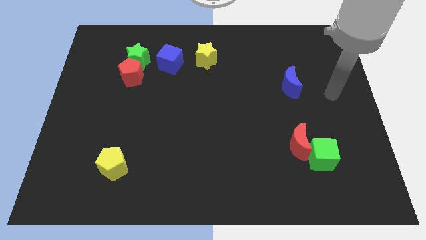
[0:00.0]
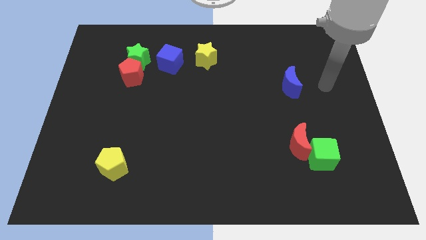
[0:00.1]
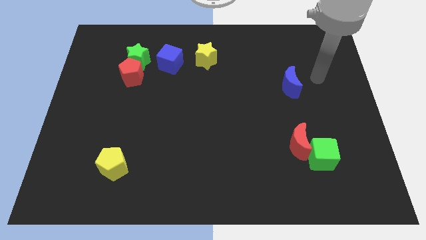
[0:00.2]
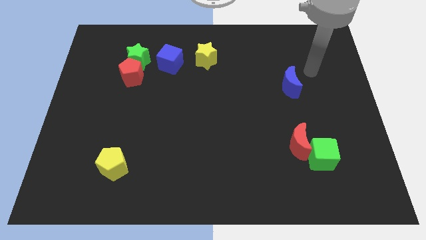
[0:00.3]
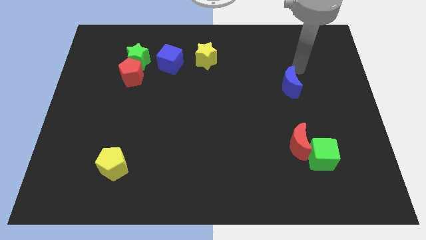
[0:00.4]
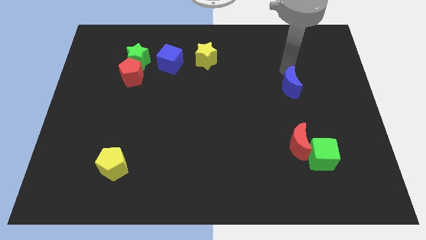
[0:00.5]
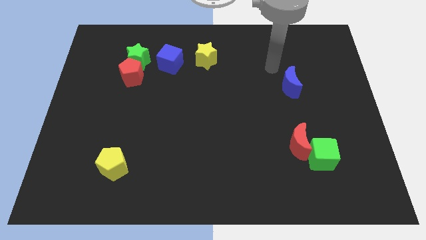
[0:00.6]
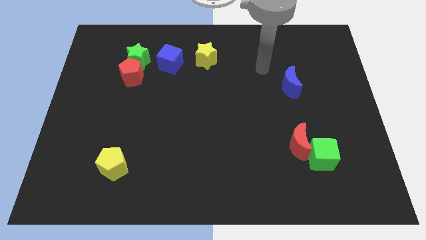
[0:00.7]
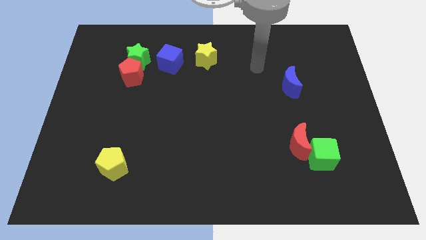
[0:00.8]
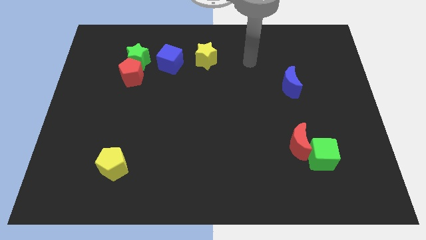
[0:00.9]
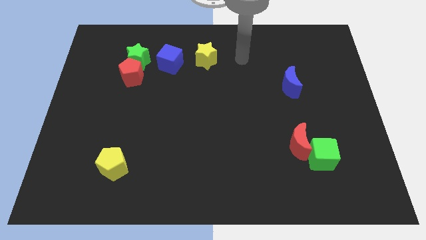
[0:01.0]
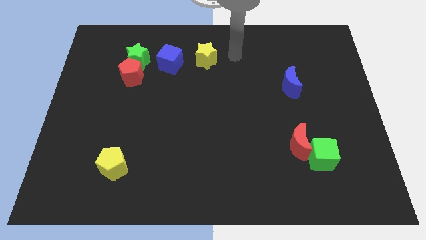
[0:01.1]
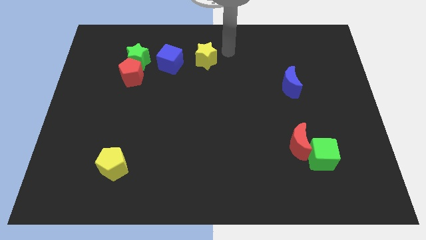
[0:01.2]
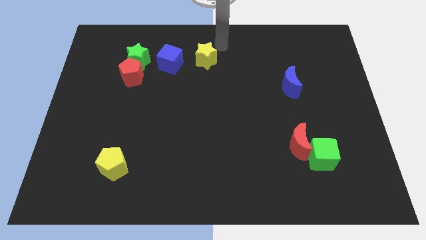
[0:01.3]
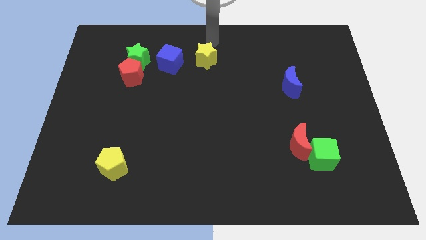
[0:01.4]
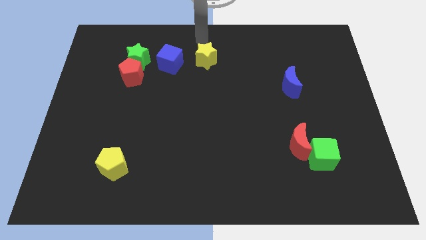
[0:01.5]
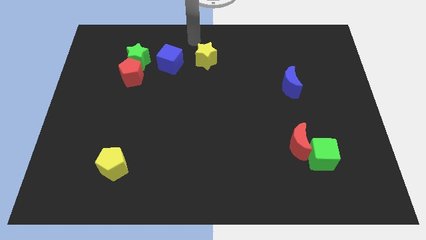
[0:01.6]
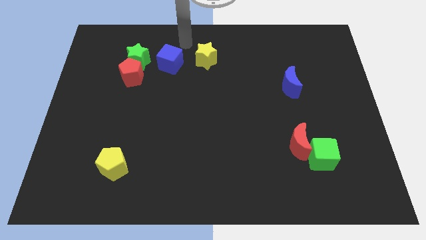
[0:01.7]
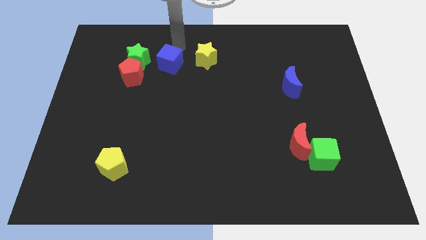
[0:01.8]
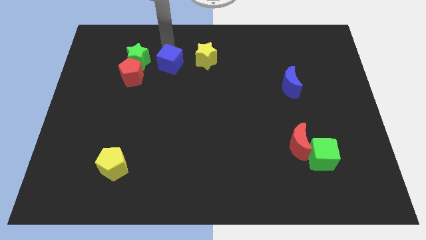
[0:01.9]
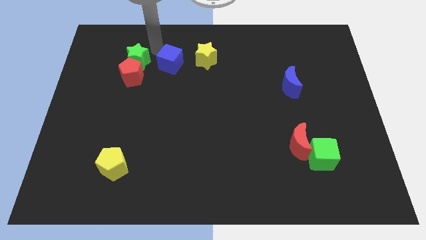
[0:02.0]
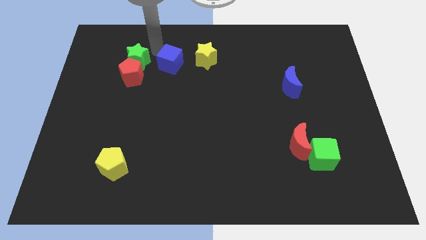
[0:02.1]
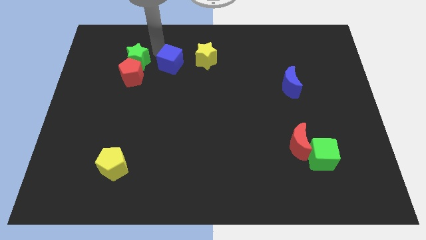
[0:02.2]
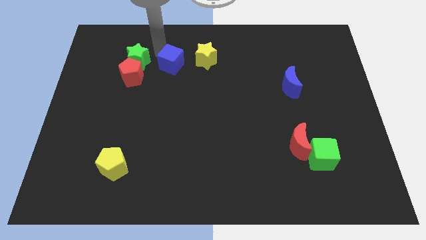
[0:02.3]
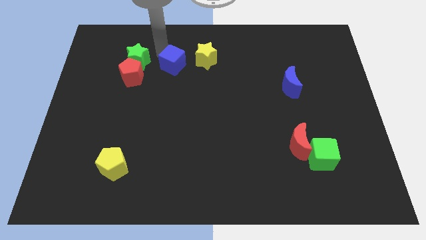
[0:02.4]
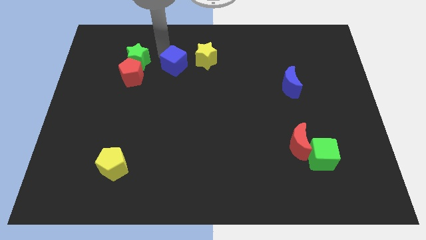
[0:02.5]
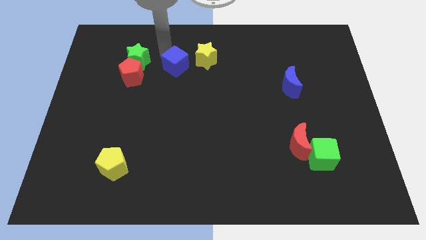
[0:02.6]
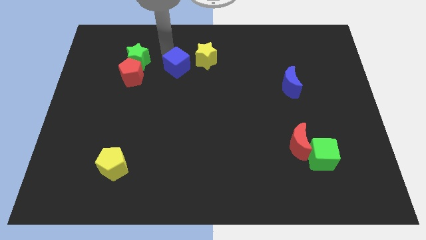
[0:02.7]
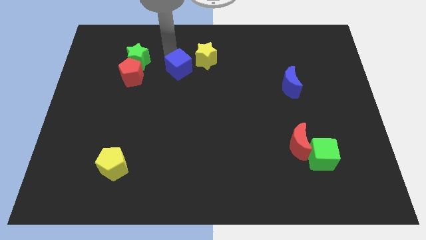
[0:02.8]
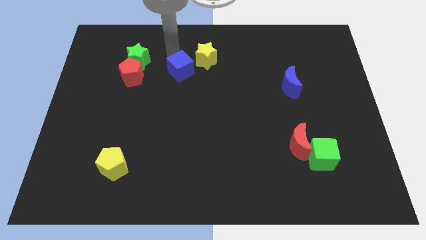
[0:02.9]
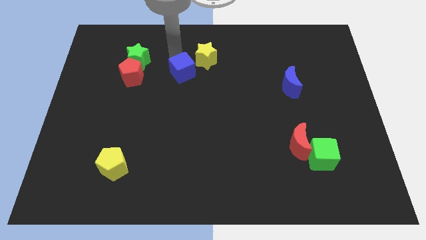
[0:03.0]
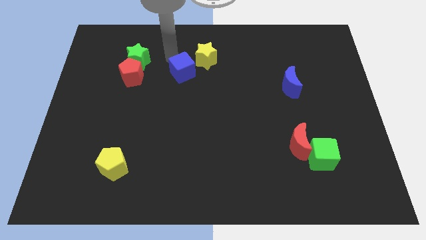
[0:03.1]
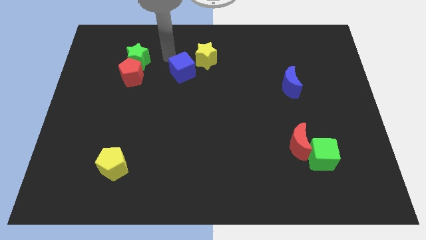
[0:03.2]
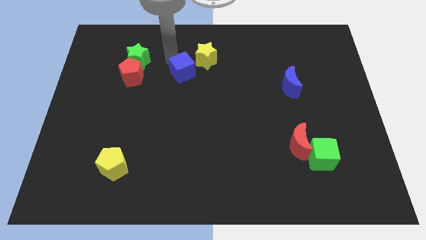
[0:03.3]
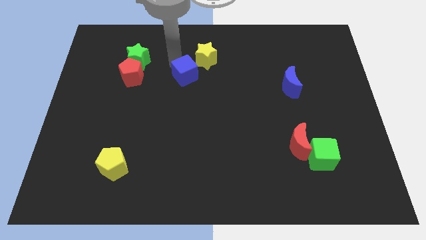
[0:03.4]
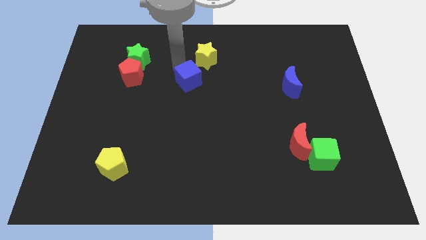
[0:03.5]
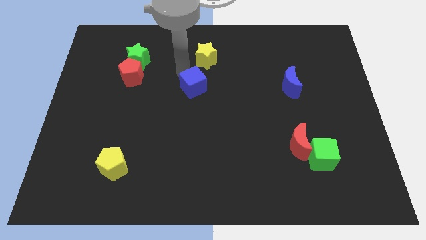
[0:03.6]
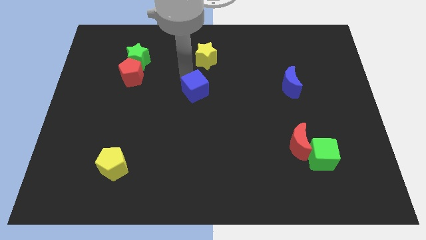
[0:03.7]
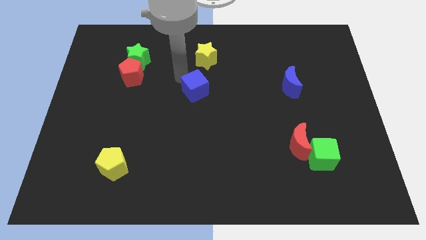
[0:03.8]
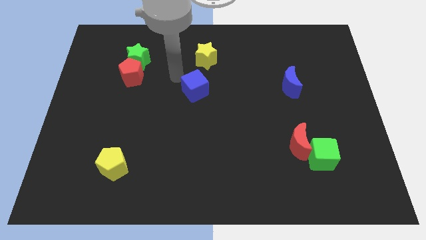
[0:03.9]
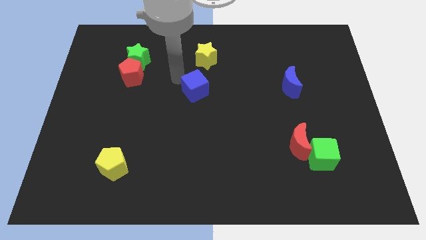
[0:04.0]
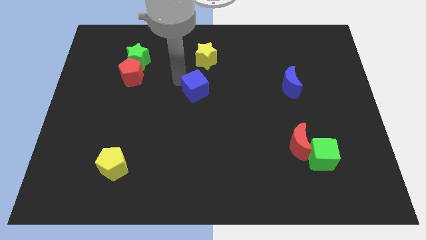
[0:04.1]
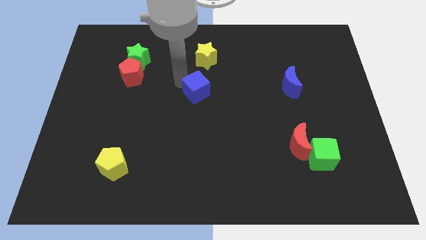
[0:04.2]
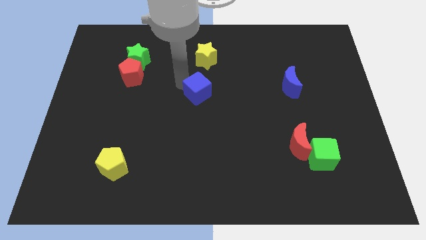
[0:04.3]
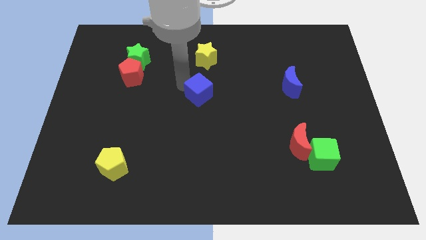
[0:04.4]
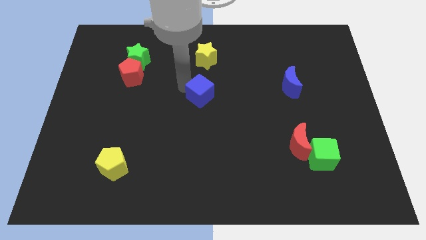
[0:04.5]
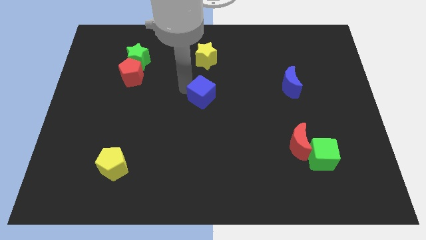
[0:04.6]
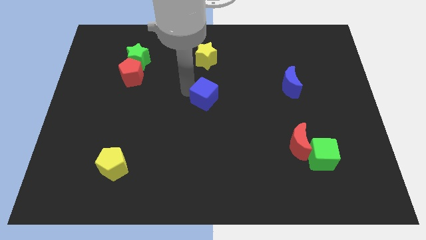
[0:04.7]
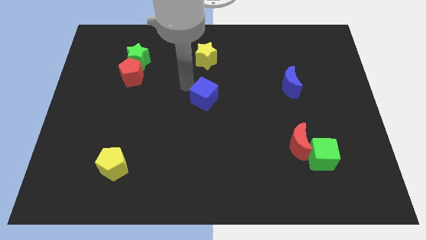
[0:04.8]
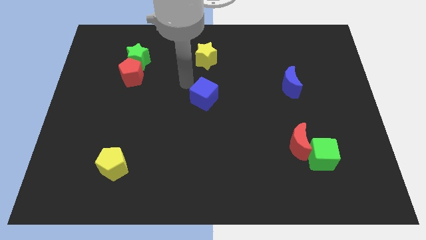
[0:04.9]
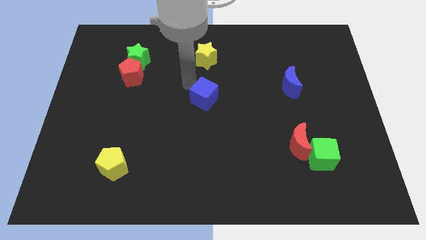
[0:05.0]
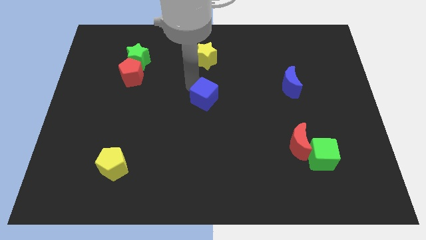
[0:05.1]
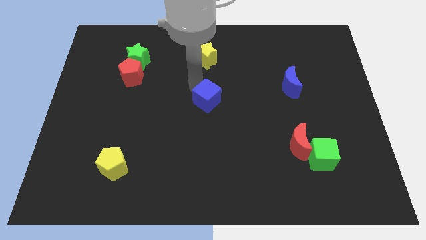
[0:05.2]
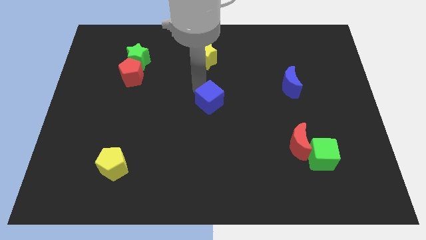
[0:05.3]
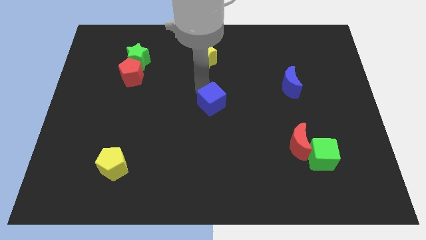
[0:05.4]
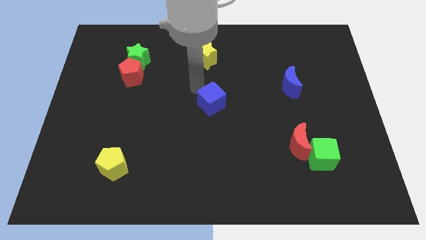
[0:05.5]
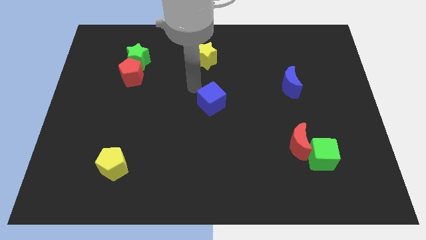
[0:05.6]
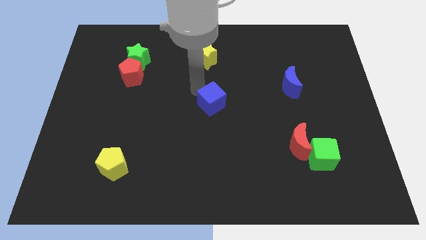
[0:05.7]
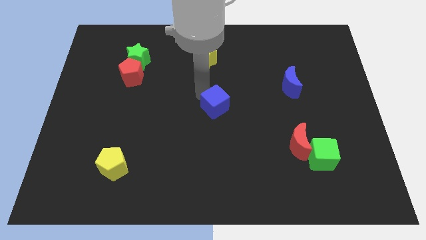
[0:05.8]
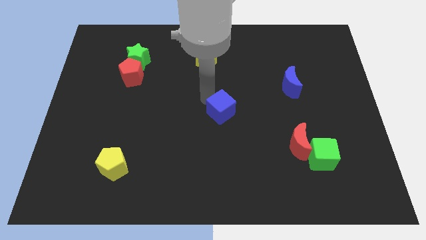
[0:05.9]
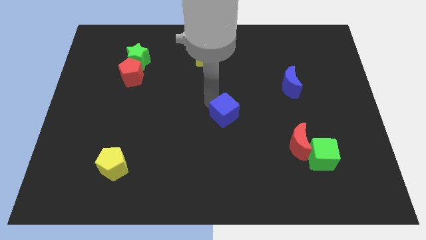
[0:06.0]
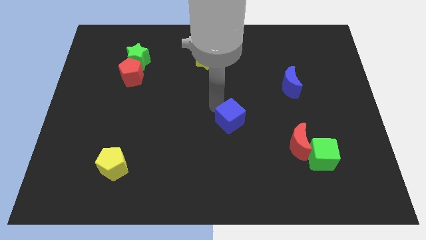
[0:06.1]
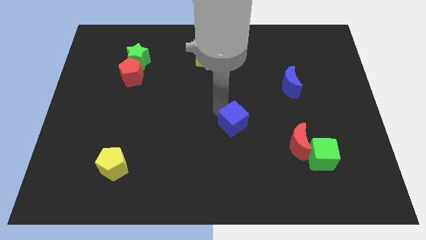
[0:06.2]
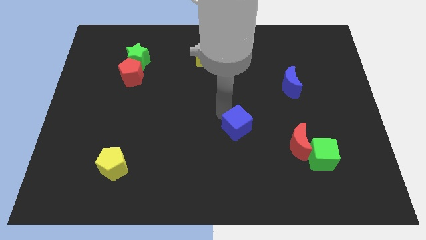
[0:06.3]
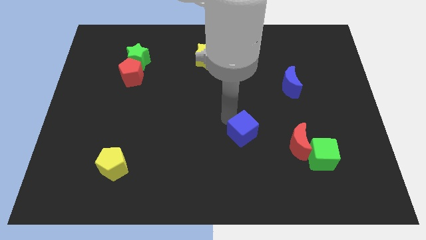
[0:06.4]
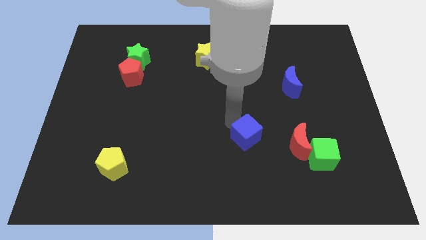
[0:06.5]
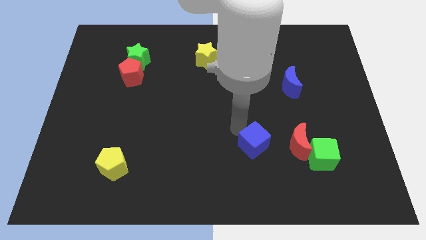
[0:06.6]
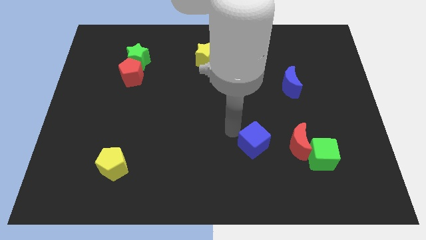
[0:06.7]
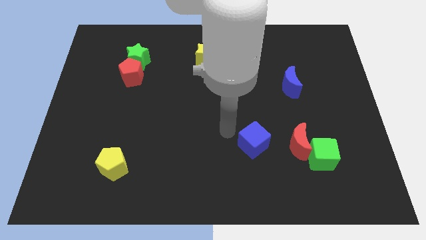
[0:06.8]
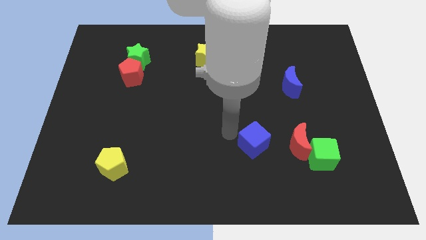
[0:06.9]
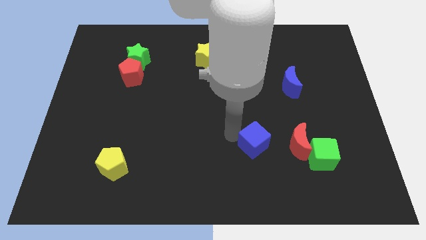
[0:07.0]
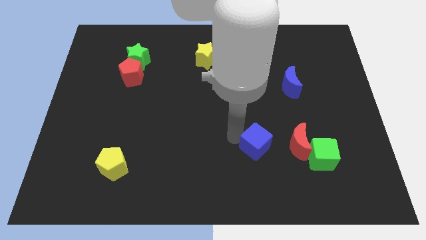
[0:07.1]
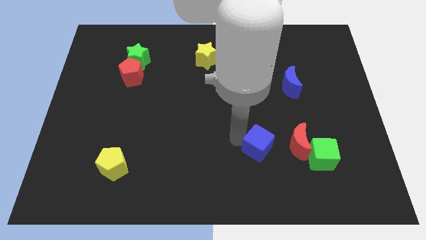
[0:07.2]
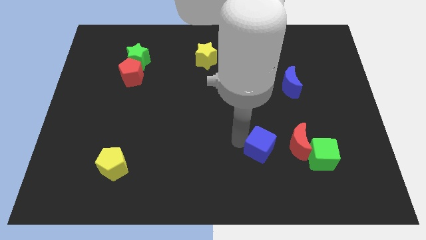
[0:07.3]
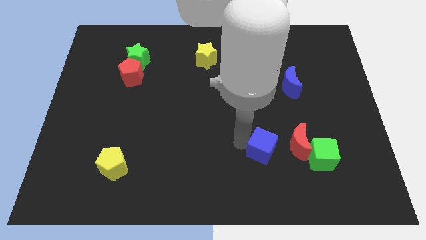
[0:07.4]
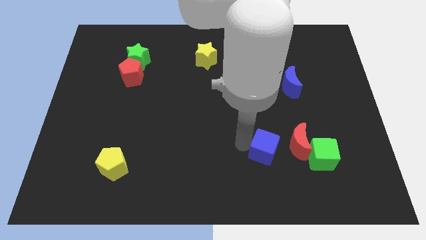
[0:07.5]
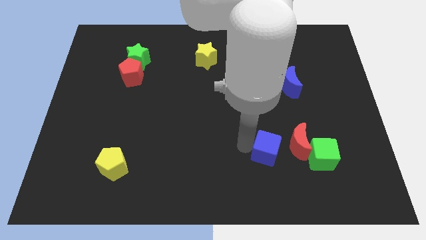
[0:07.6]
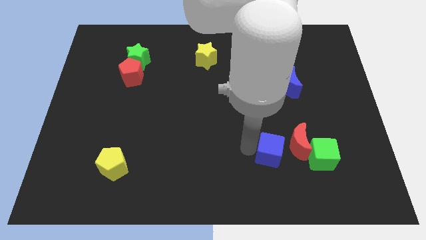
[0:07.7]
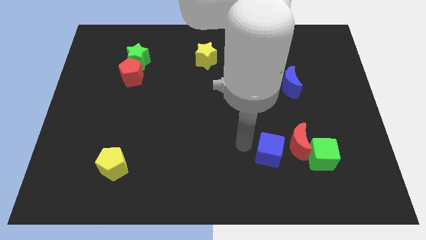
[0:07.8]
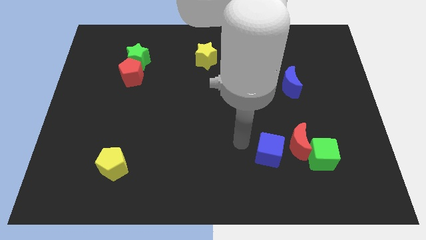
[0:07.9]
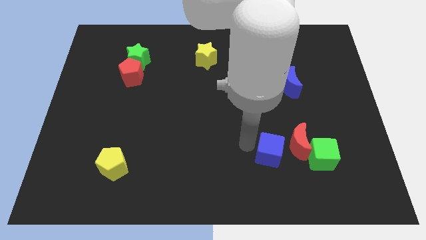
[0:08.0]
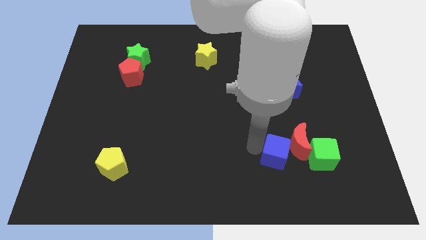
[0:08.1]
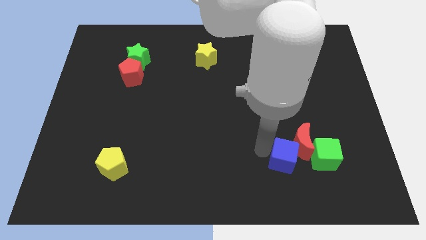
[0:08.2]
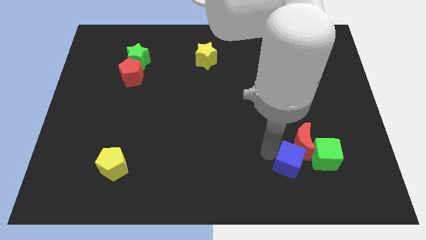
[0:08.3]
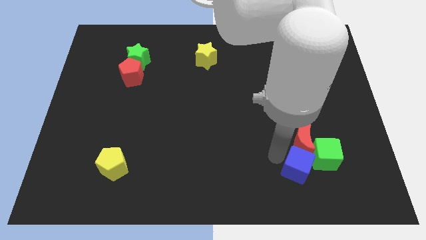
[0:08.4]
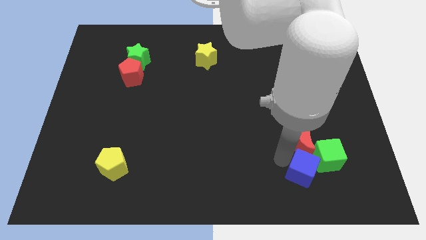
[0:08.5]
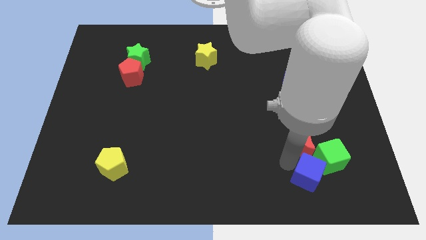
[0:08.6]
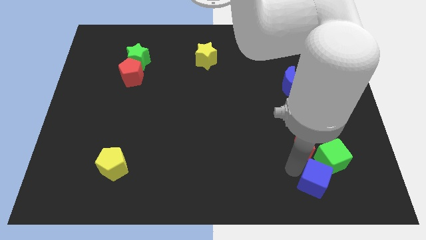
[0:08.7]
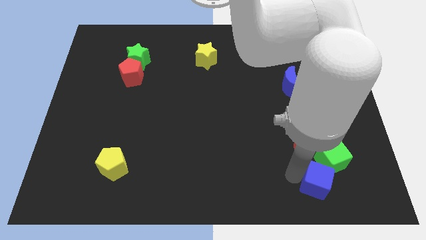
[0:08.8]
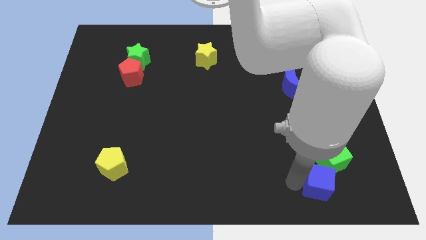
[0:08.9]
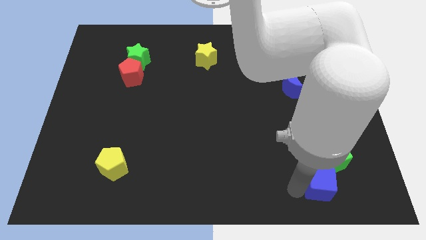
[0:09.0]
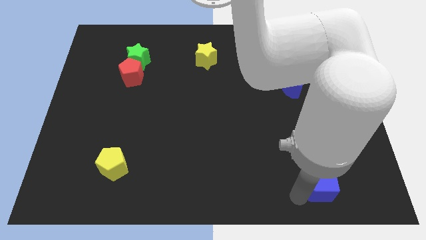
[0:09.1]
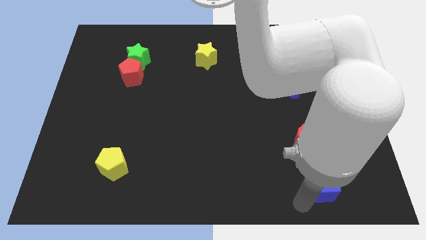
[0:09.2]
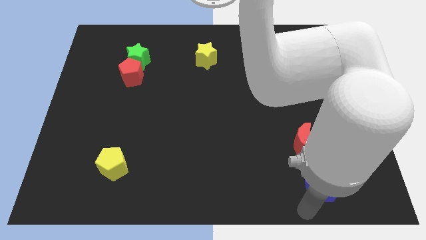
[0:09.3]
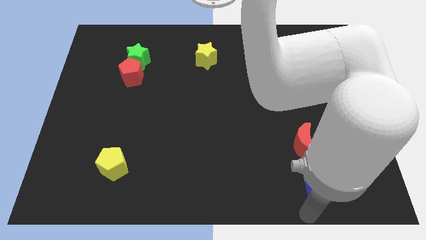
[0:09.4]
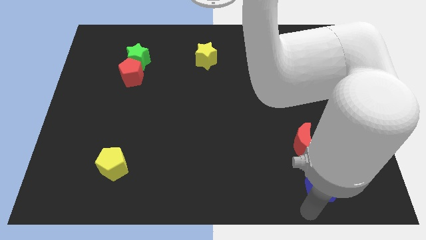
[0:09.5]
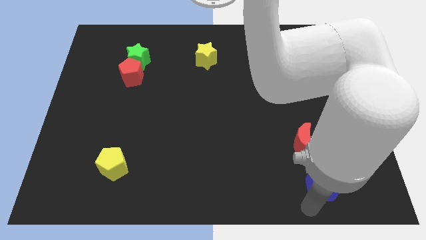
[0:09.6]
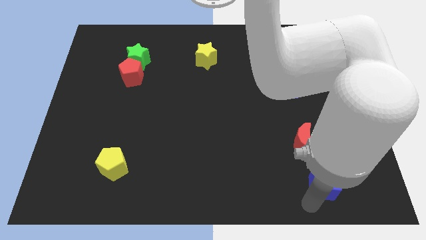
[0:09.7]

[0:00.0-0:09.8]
slide the blue cube to the bottom right of the red moon
